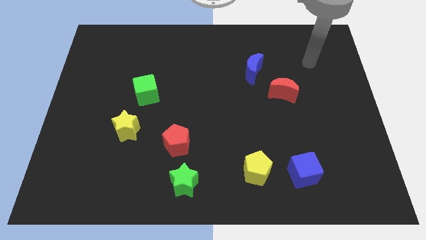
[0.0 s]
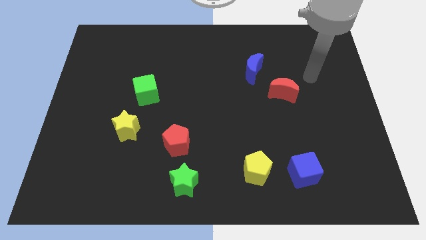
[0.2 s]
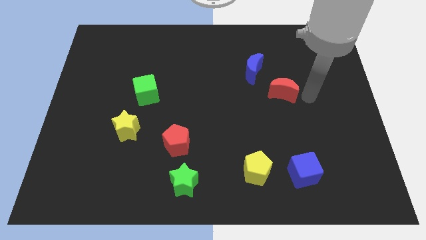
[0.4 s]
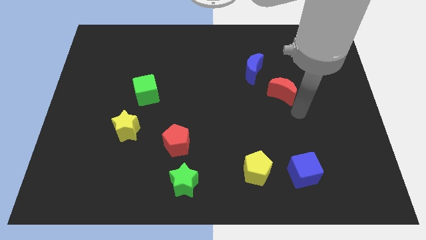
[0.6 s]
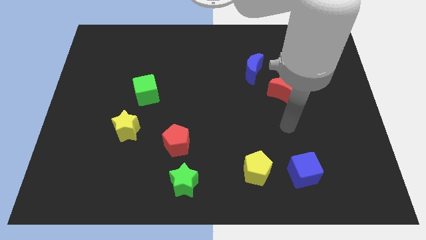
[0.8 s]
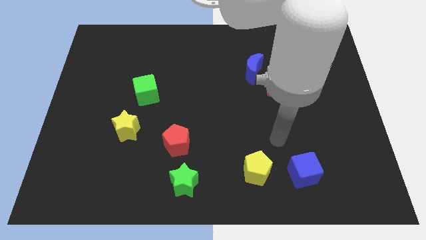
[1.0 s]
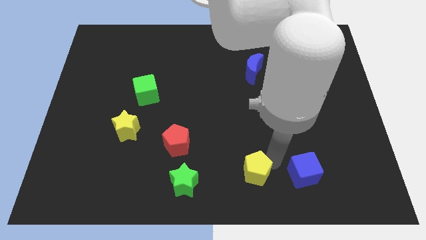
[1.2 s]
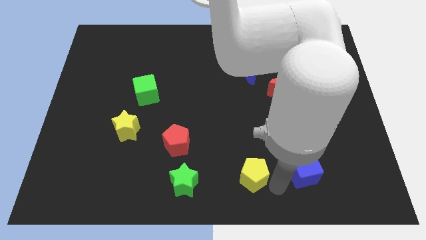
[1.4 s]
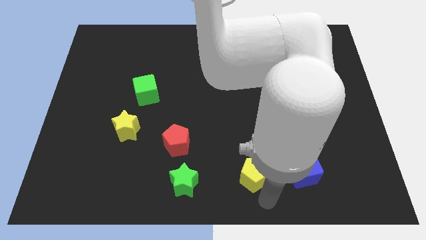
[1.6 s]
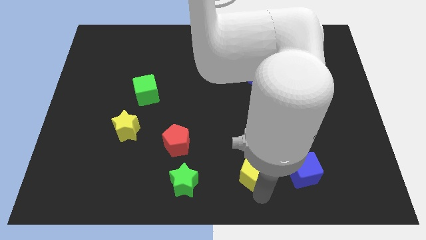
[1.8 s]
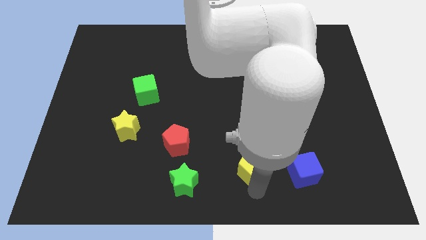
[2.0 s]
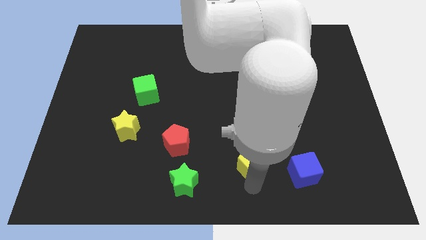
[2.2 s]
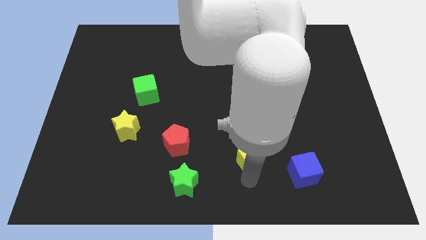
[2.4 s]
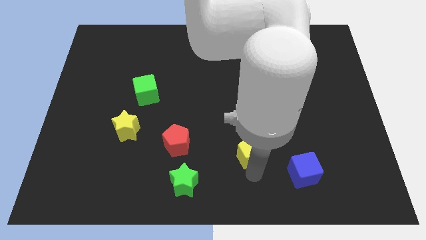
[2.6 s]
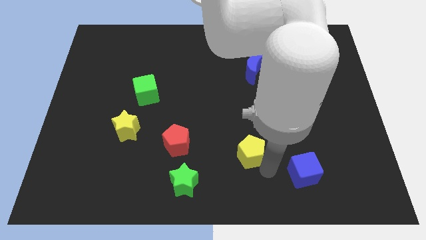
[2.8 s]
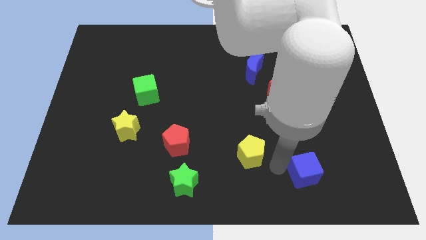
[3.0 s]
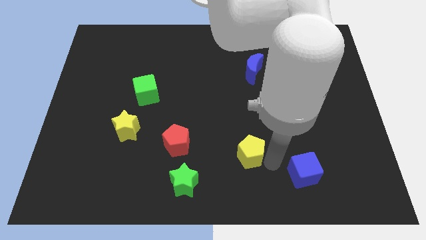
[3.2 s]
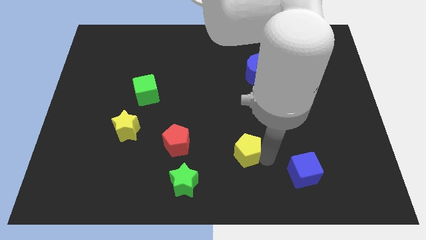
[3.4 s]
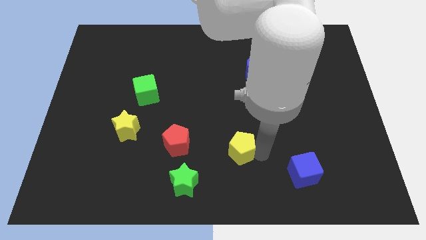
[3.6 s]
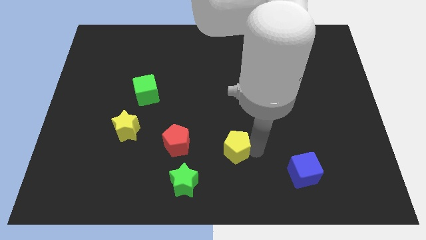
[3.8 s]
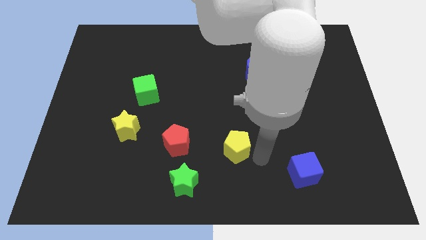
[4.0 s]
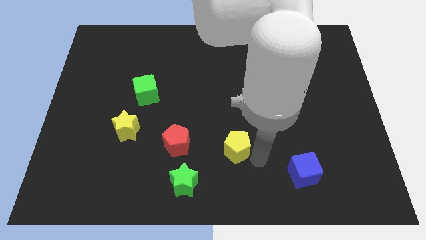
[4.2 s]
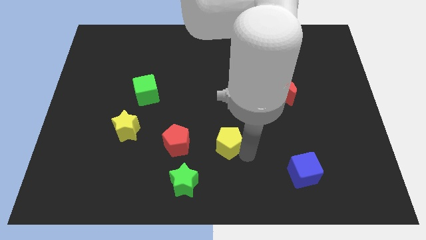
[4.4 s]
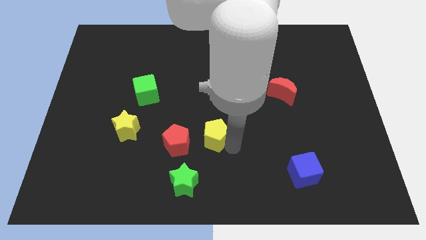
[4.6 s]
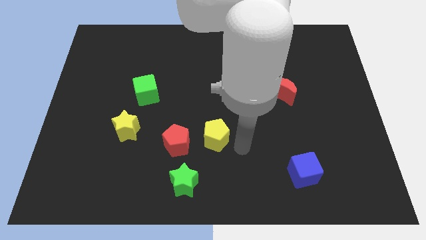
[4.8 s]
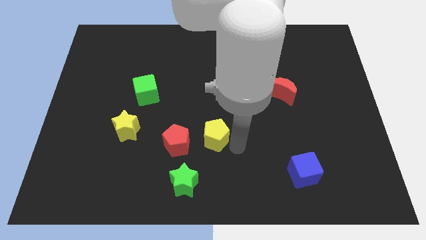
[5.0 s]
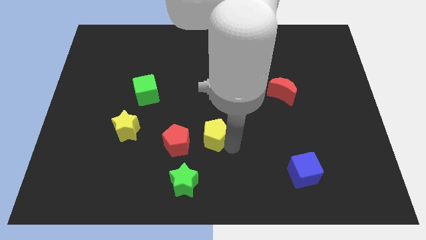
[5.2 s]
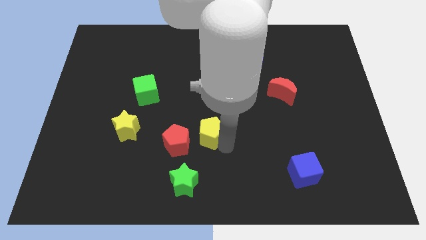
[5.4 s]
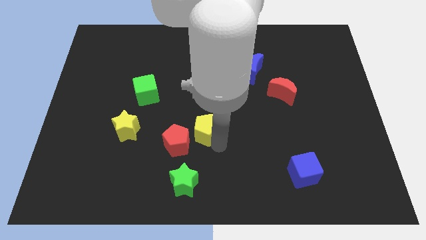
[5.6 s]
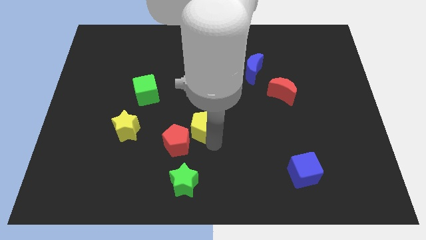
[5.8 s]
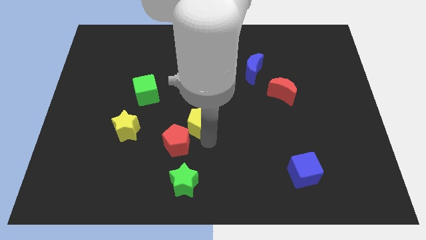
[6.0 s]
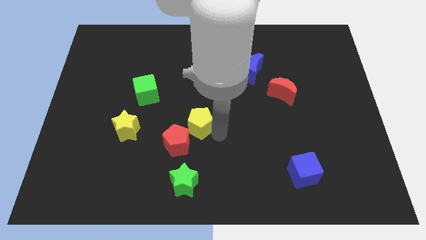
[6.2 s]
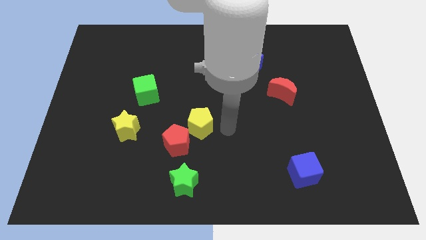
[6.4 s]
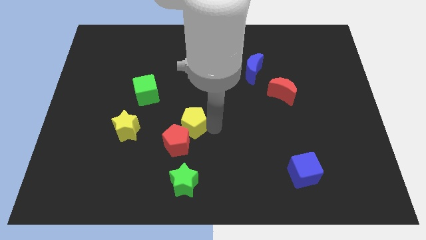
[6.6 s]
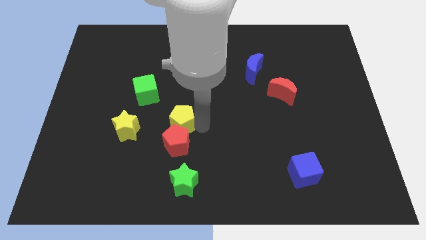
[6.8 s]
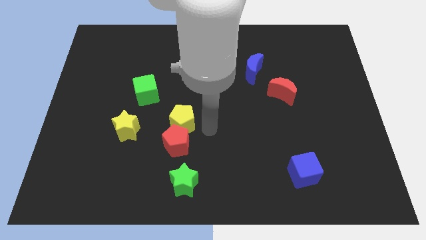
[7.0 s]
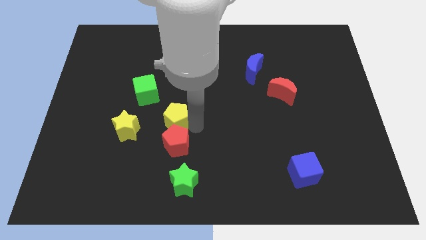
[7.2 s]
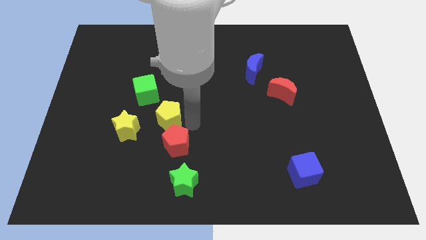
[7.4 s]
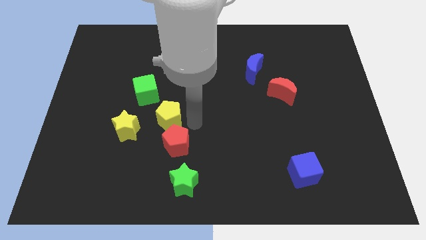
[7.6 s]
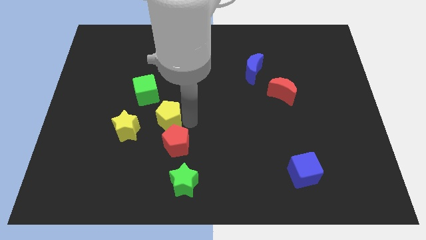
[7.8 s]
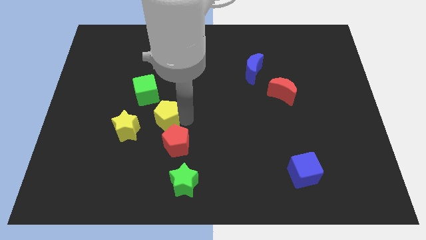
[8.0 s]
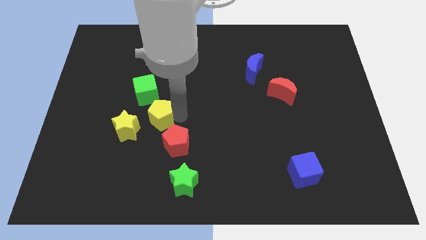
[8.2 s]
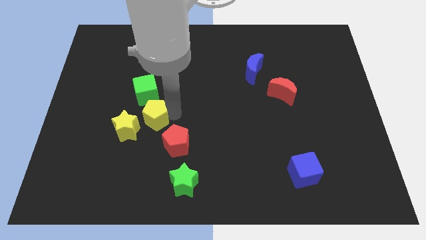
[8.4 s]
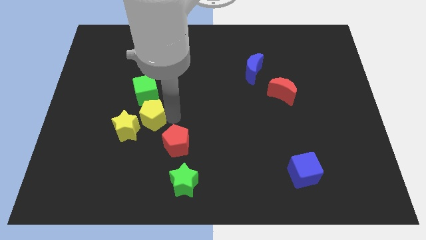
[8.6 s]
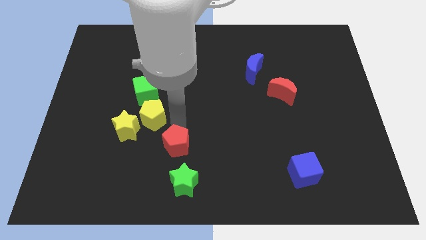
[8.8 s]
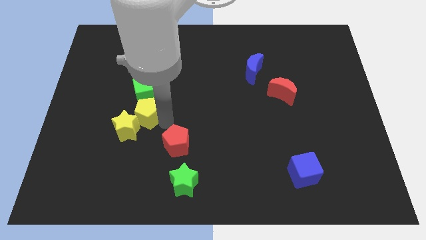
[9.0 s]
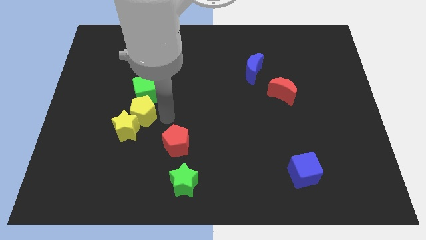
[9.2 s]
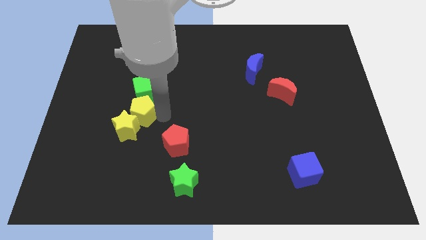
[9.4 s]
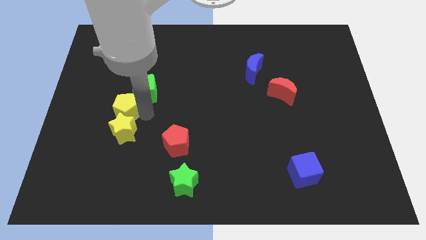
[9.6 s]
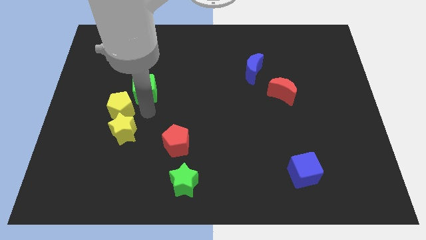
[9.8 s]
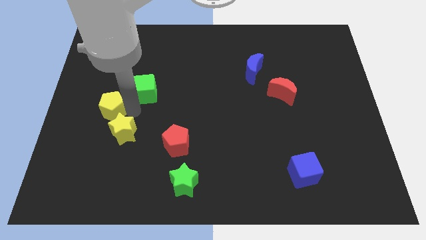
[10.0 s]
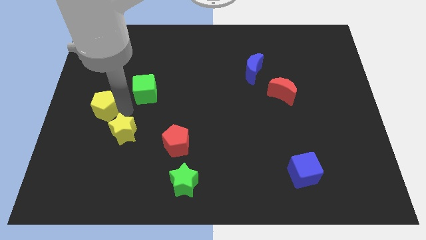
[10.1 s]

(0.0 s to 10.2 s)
put the yellow pentagon to the left side of the board
